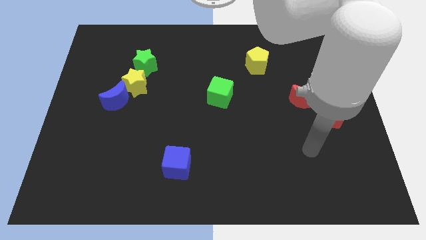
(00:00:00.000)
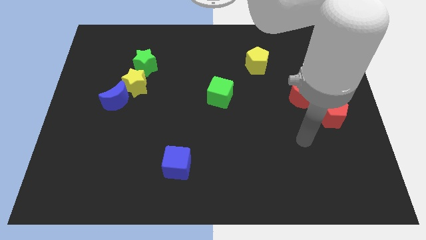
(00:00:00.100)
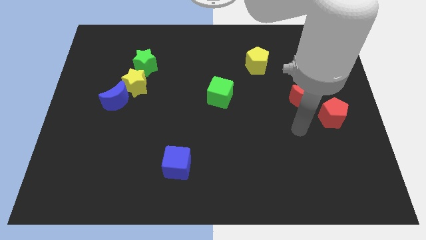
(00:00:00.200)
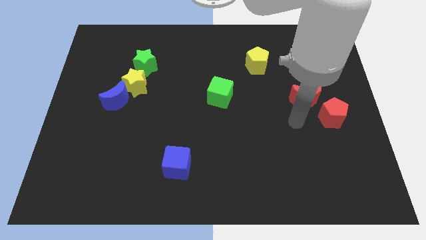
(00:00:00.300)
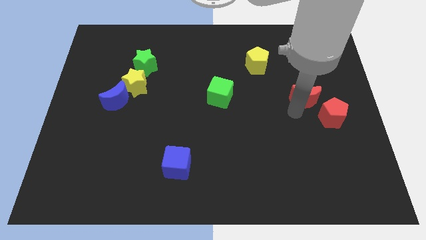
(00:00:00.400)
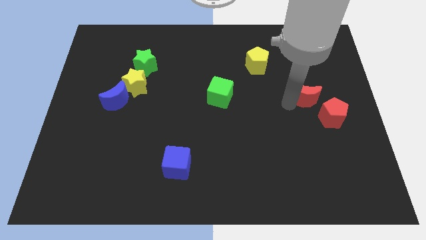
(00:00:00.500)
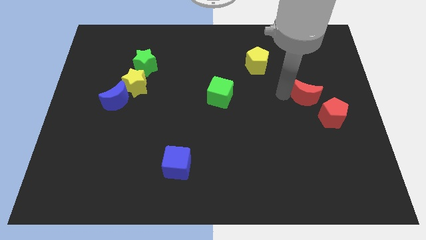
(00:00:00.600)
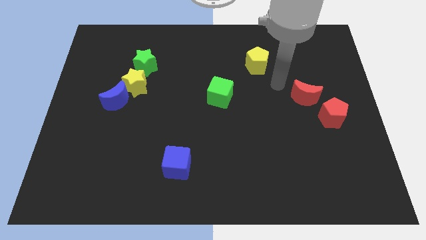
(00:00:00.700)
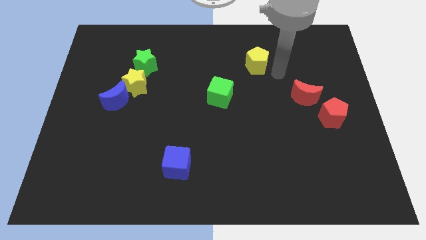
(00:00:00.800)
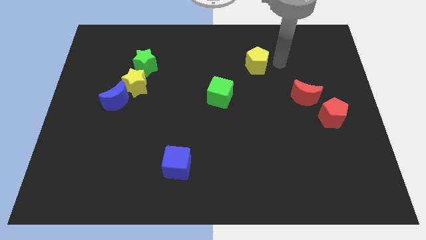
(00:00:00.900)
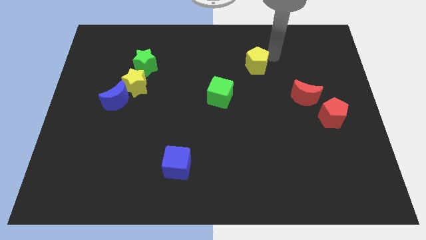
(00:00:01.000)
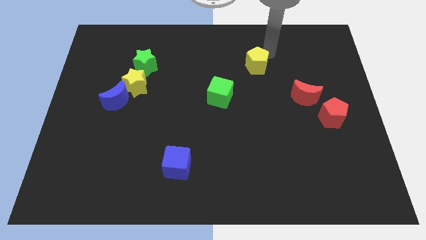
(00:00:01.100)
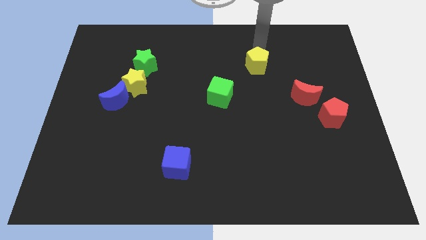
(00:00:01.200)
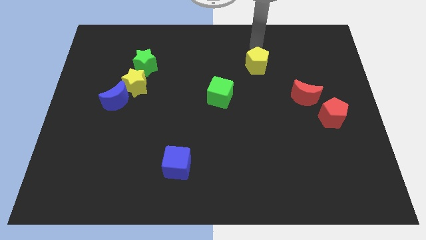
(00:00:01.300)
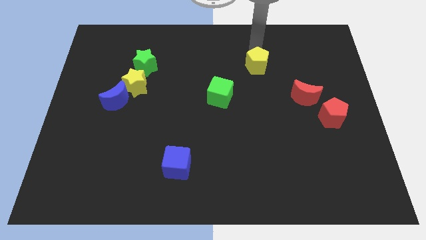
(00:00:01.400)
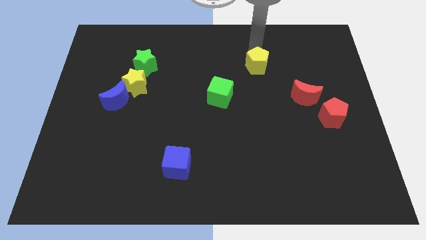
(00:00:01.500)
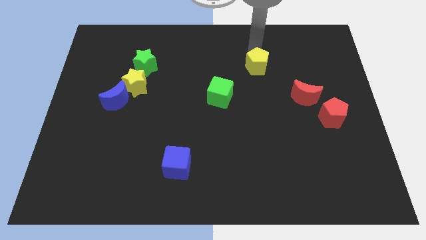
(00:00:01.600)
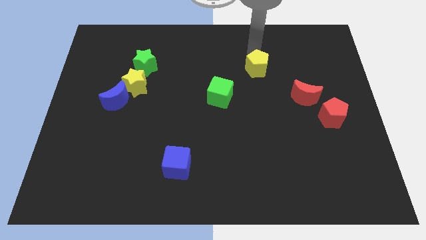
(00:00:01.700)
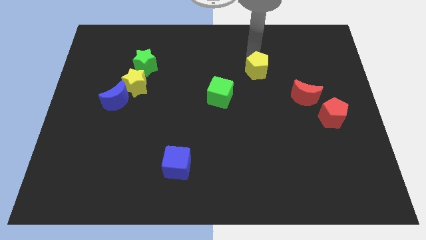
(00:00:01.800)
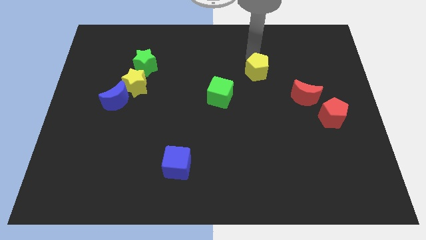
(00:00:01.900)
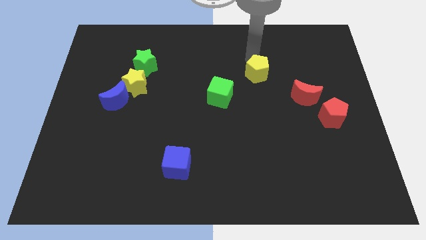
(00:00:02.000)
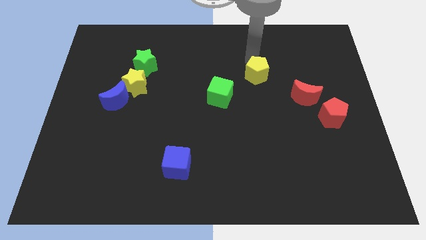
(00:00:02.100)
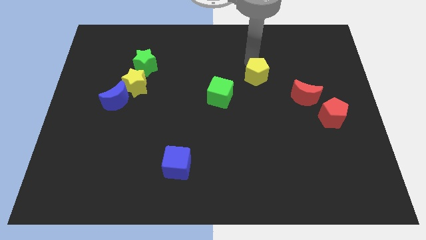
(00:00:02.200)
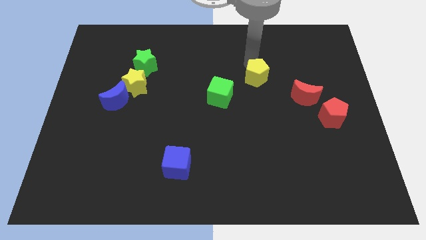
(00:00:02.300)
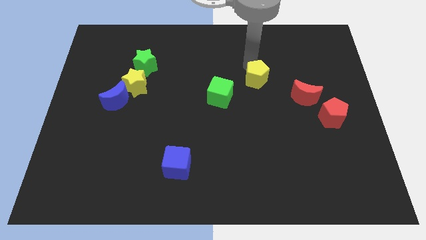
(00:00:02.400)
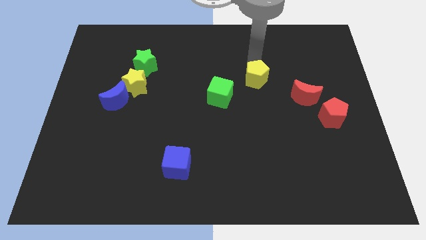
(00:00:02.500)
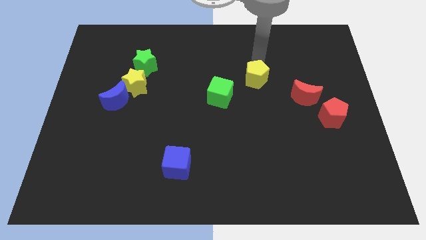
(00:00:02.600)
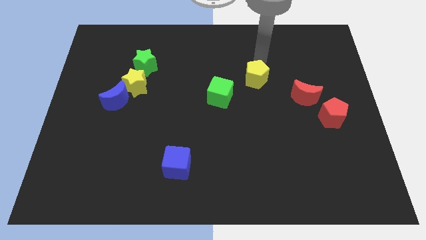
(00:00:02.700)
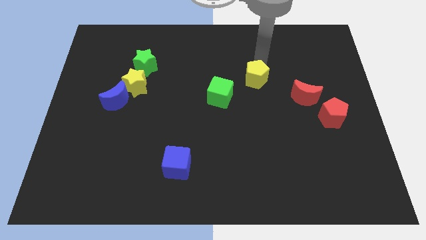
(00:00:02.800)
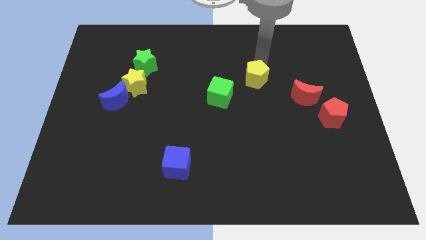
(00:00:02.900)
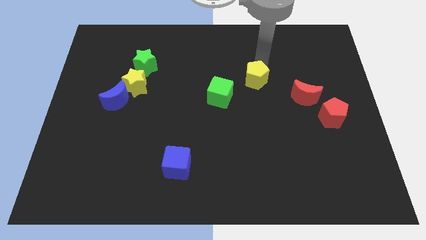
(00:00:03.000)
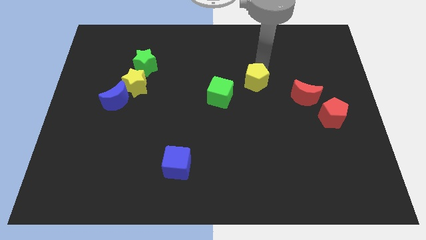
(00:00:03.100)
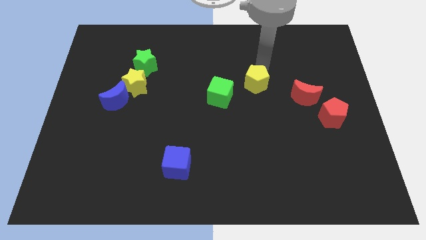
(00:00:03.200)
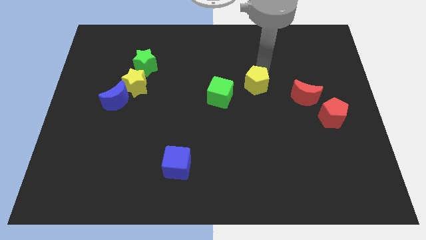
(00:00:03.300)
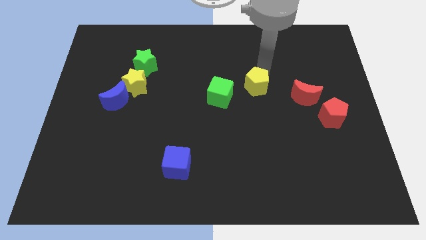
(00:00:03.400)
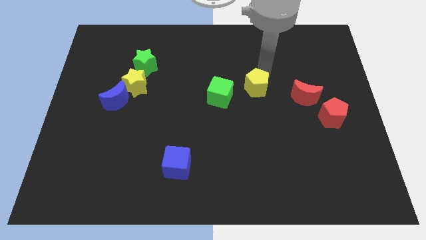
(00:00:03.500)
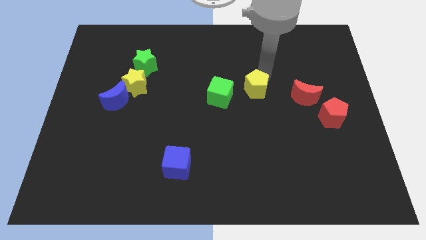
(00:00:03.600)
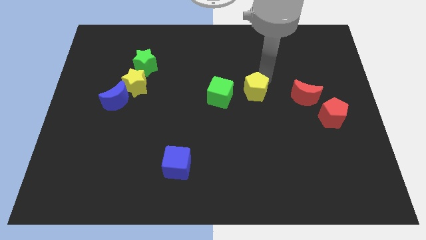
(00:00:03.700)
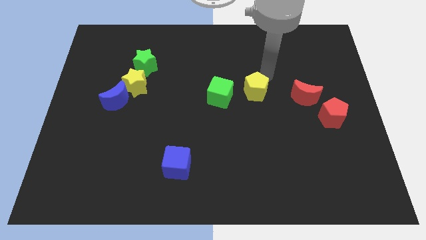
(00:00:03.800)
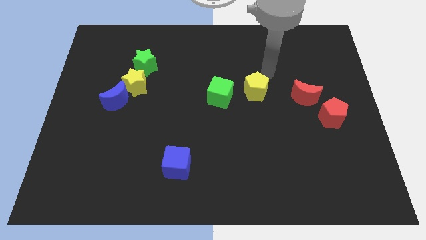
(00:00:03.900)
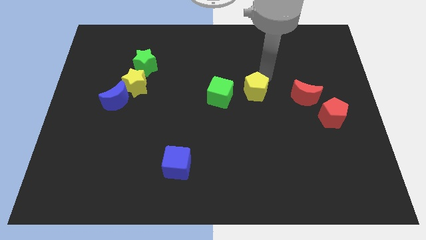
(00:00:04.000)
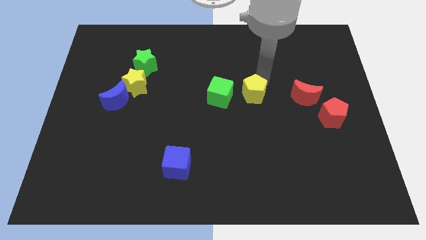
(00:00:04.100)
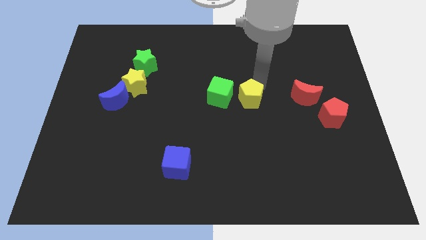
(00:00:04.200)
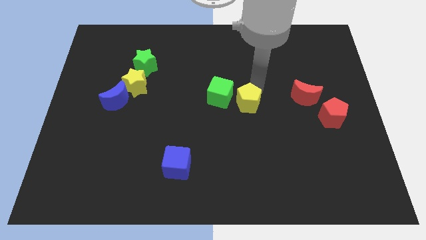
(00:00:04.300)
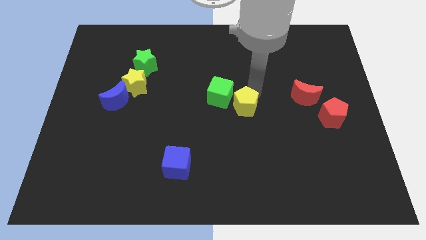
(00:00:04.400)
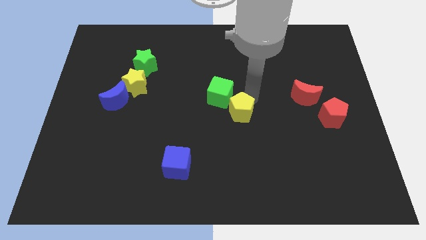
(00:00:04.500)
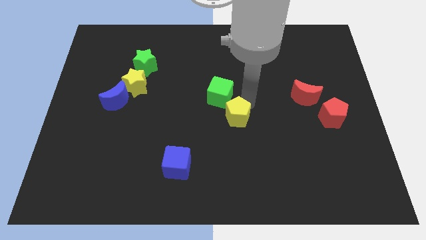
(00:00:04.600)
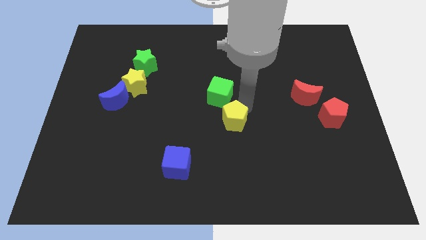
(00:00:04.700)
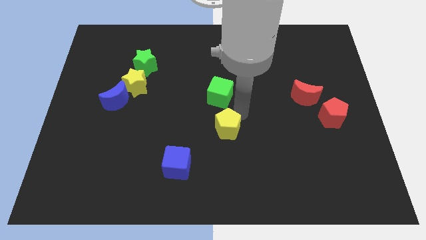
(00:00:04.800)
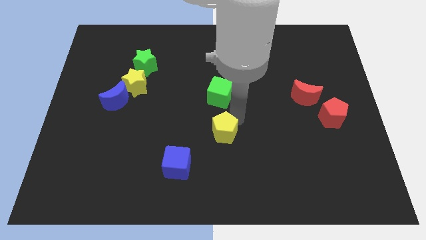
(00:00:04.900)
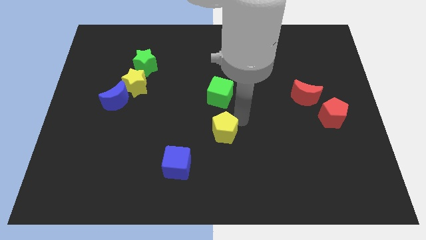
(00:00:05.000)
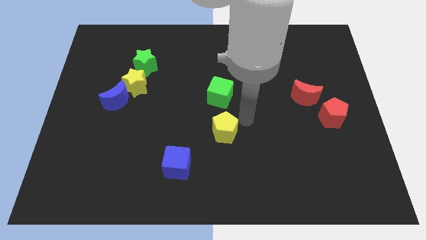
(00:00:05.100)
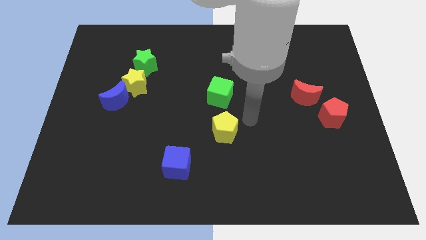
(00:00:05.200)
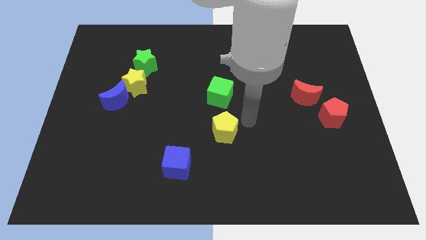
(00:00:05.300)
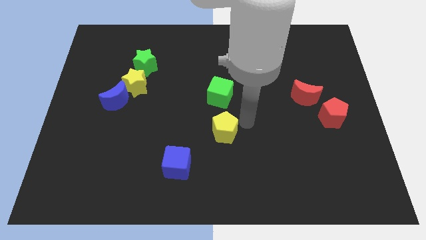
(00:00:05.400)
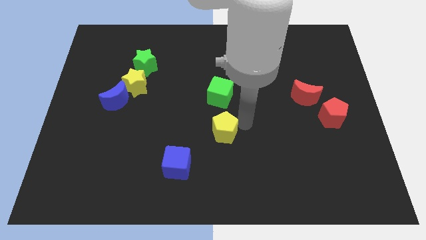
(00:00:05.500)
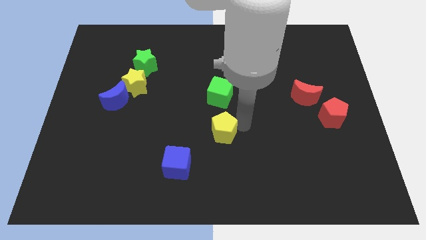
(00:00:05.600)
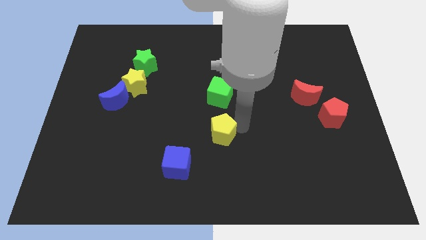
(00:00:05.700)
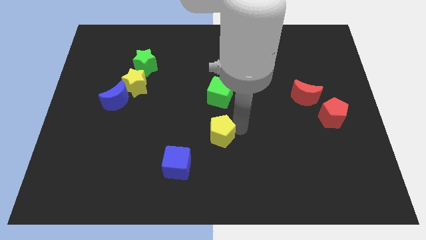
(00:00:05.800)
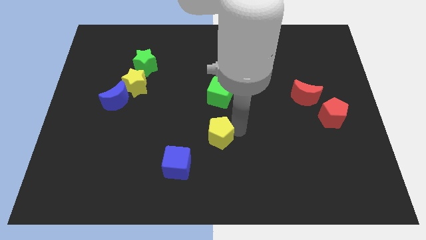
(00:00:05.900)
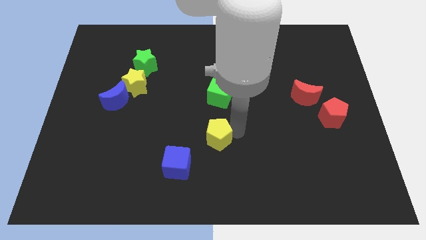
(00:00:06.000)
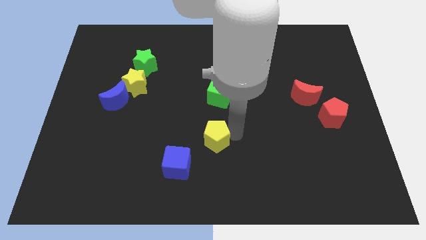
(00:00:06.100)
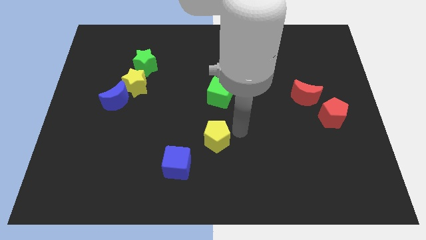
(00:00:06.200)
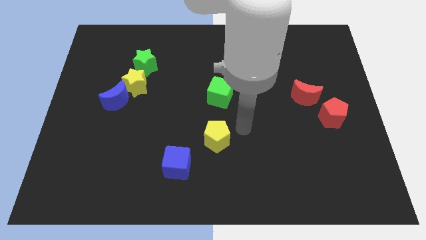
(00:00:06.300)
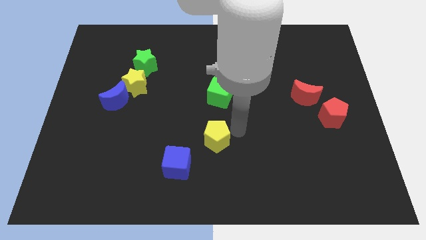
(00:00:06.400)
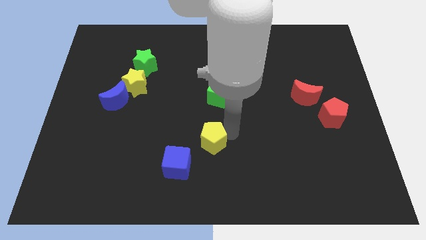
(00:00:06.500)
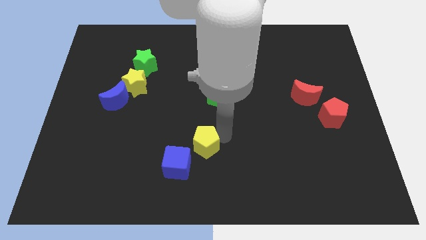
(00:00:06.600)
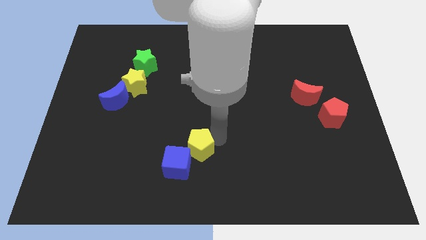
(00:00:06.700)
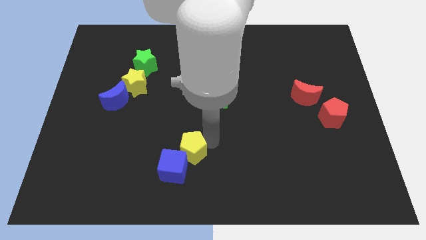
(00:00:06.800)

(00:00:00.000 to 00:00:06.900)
push the yellow pentagon to the blue cube
